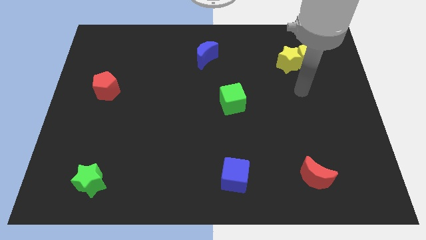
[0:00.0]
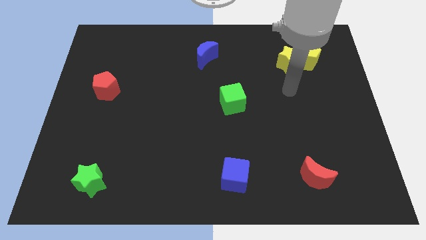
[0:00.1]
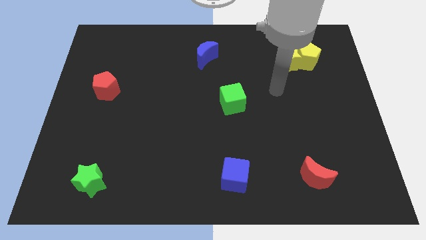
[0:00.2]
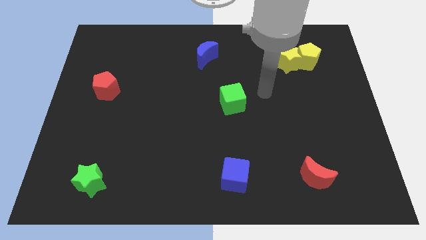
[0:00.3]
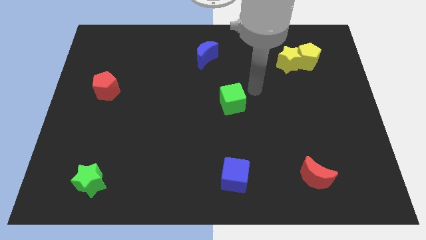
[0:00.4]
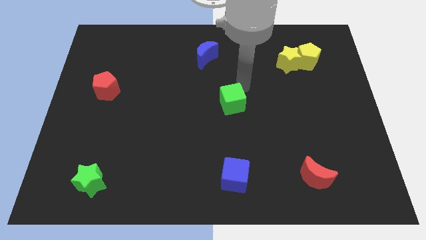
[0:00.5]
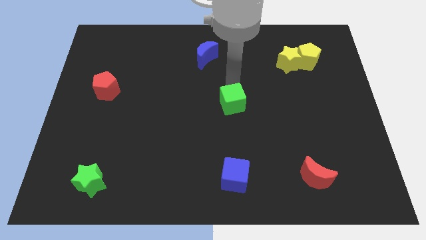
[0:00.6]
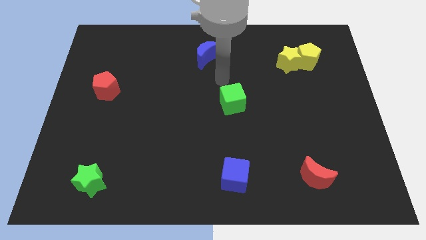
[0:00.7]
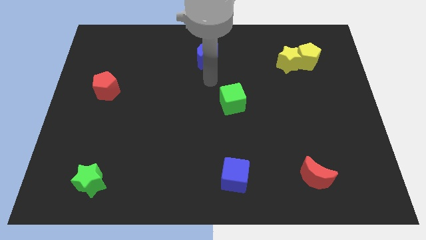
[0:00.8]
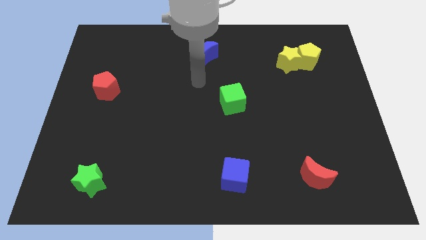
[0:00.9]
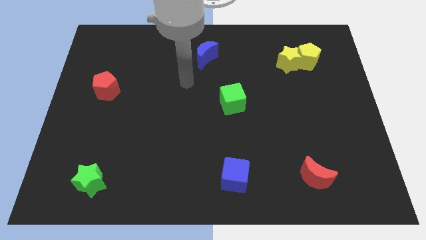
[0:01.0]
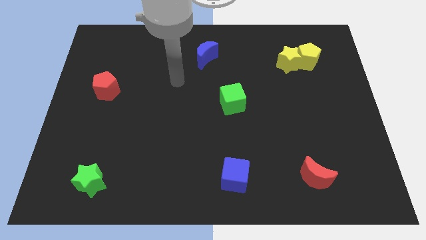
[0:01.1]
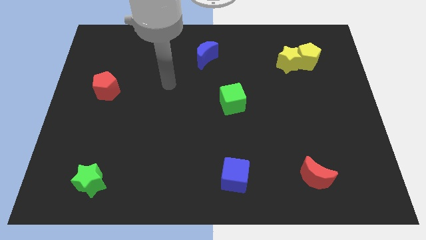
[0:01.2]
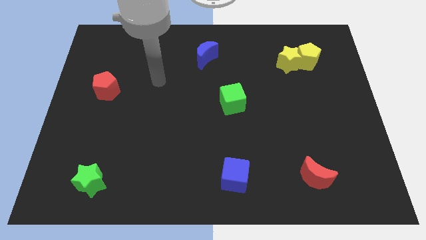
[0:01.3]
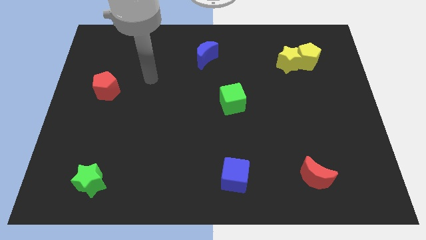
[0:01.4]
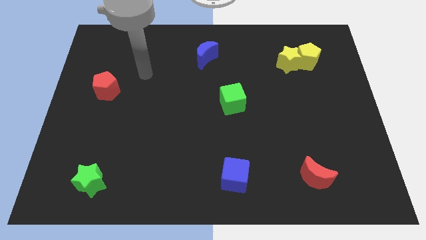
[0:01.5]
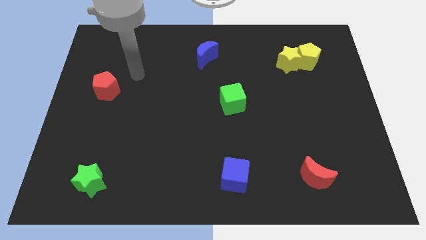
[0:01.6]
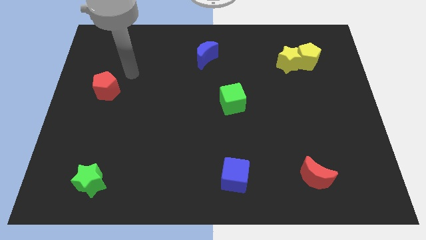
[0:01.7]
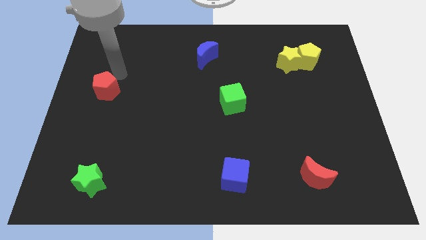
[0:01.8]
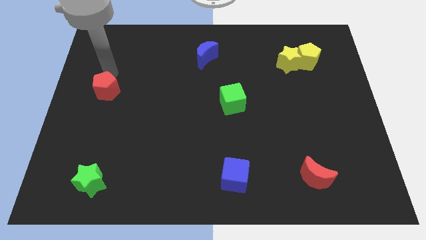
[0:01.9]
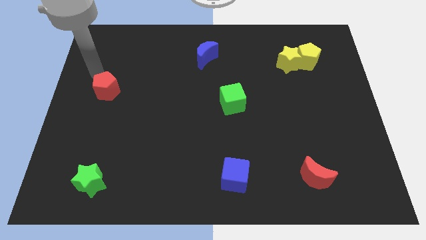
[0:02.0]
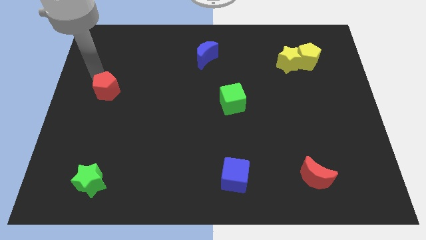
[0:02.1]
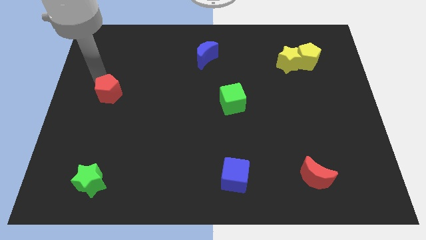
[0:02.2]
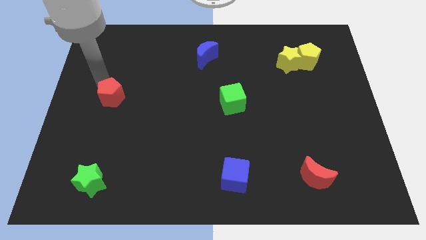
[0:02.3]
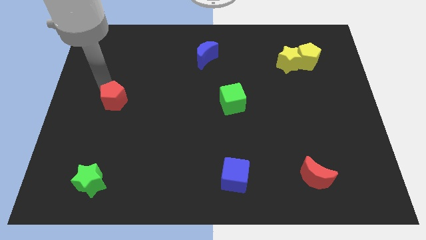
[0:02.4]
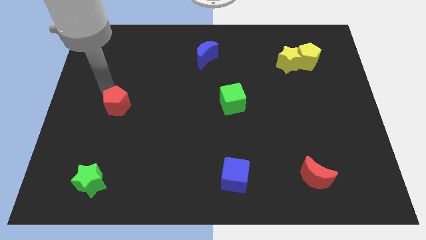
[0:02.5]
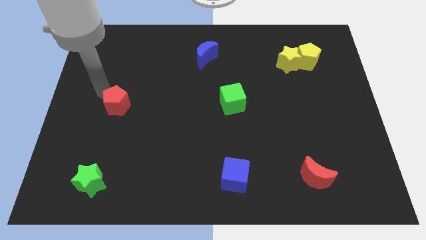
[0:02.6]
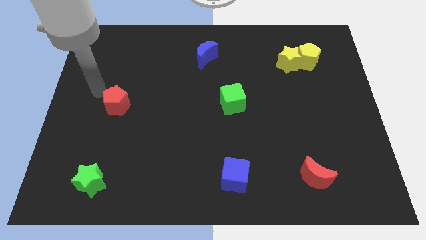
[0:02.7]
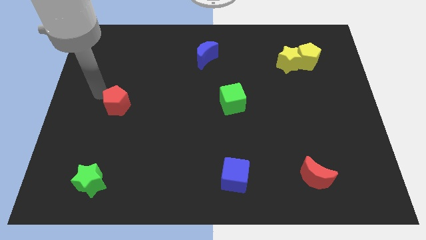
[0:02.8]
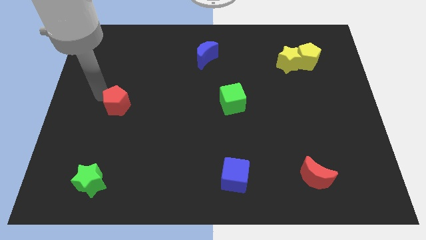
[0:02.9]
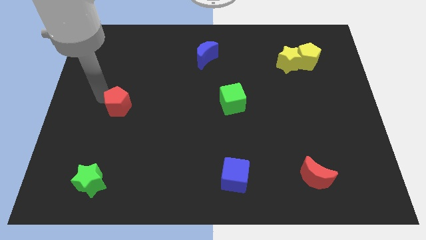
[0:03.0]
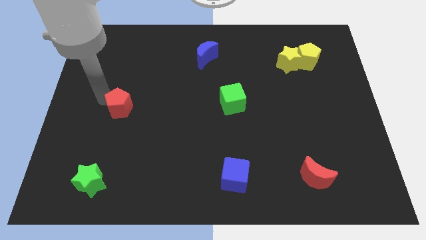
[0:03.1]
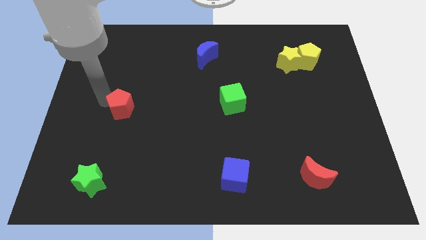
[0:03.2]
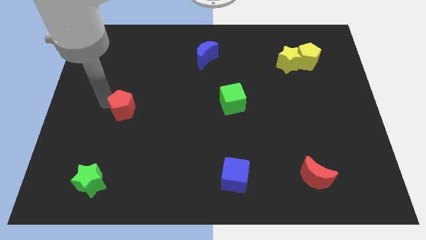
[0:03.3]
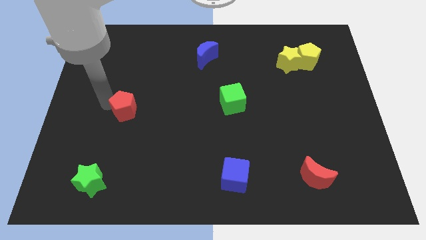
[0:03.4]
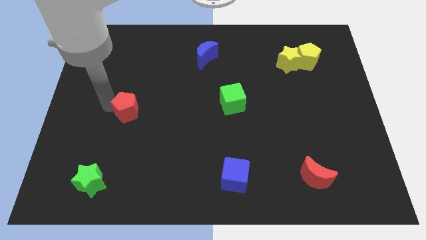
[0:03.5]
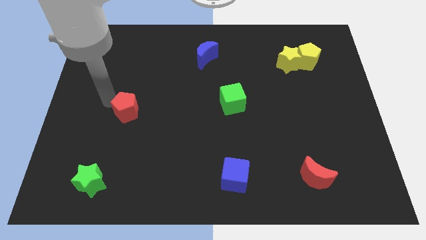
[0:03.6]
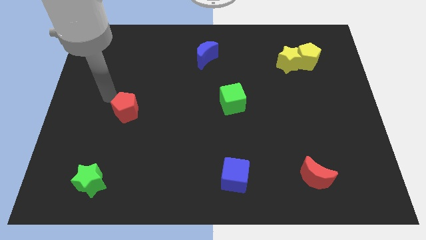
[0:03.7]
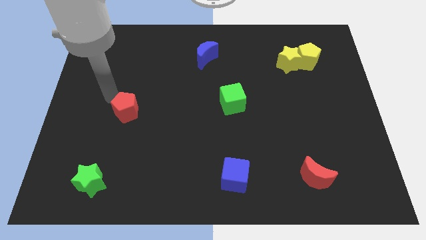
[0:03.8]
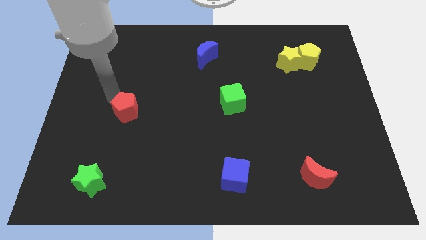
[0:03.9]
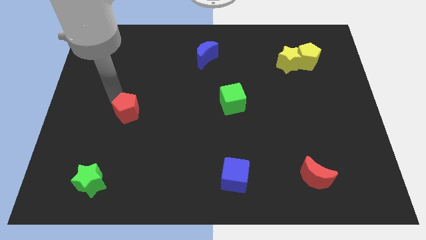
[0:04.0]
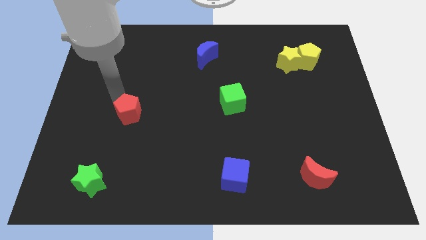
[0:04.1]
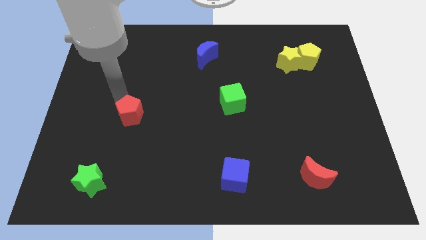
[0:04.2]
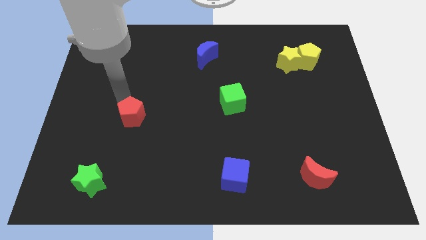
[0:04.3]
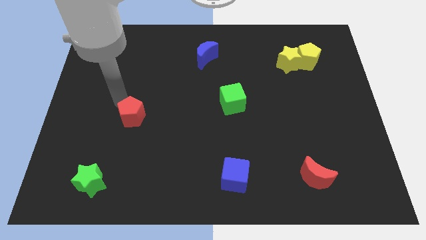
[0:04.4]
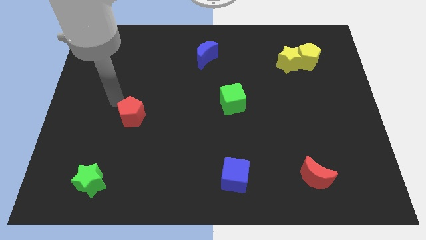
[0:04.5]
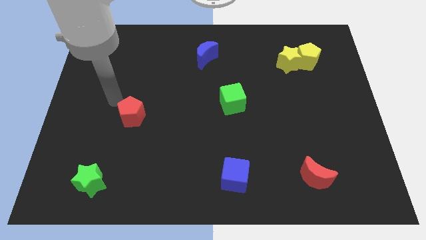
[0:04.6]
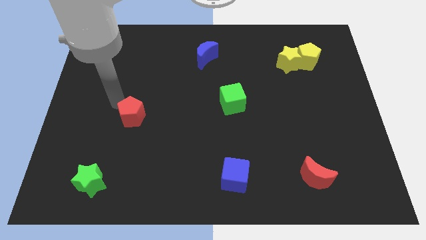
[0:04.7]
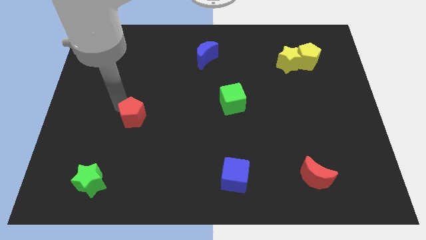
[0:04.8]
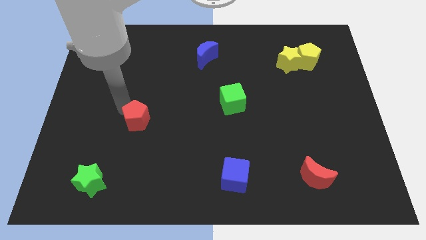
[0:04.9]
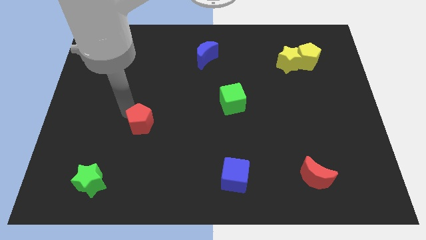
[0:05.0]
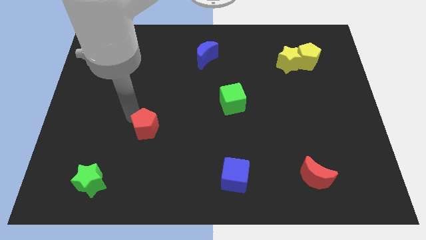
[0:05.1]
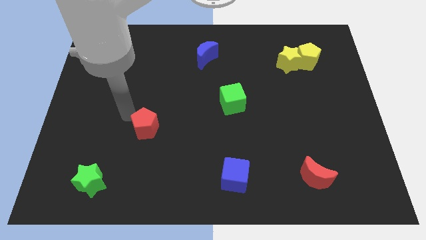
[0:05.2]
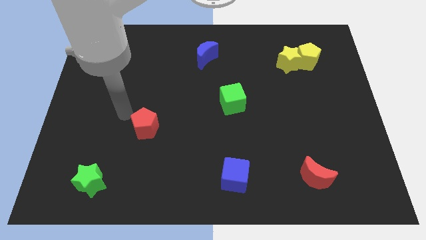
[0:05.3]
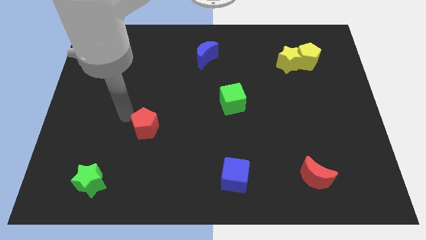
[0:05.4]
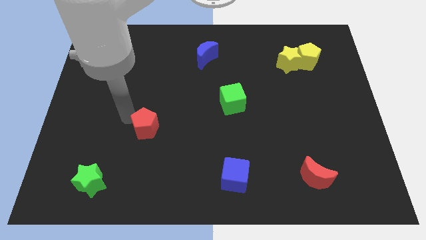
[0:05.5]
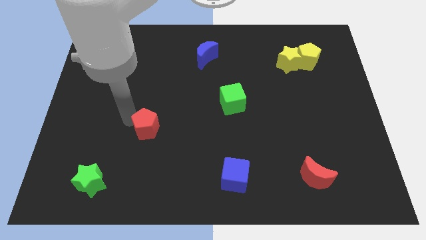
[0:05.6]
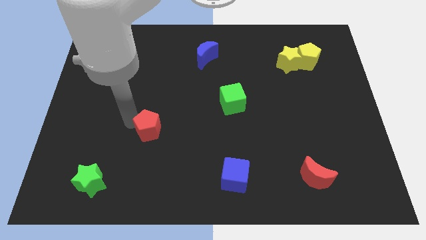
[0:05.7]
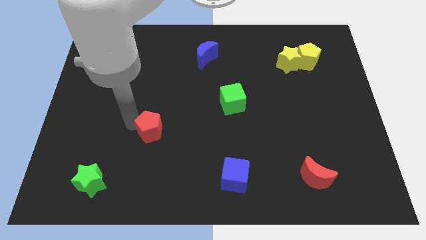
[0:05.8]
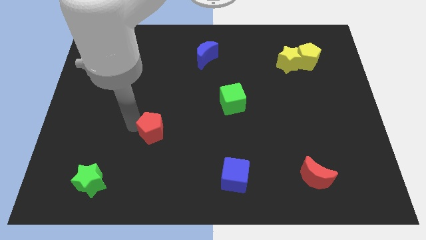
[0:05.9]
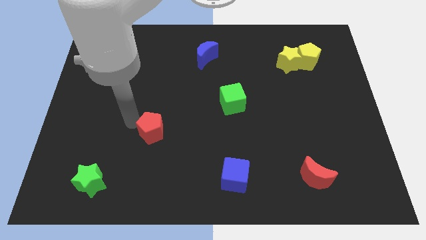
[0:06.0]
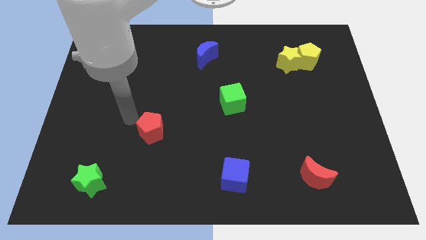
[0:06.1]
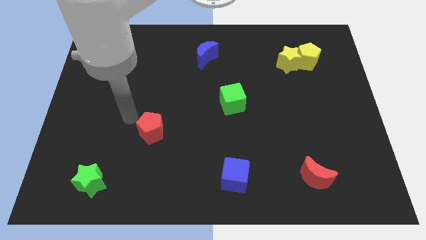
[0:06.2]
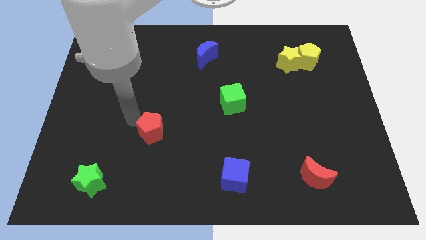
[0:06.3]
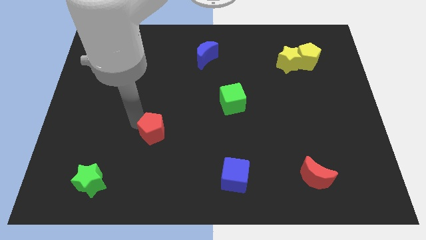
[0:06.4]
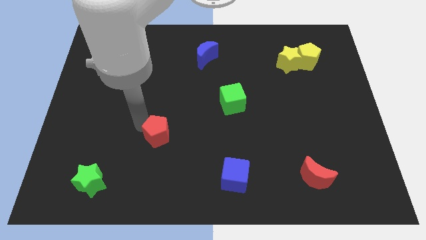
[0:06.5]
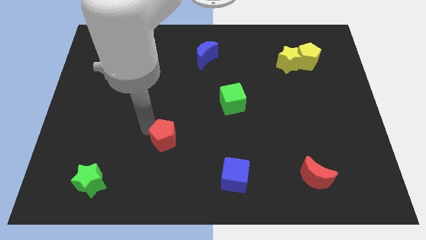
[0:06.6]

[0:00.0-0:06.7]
move the red pentagon diagonally down and to the right

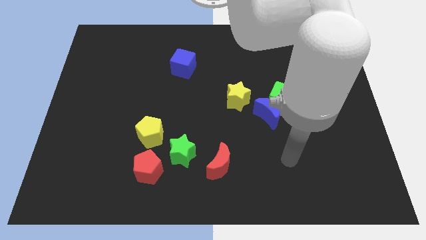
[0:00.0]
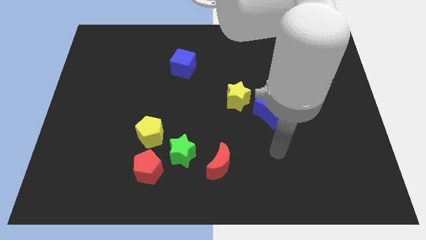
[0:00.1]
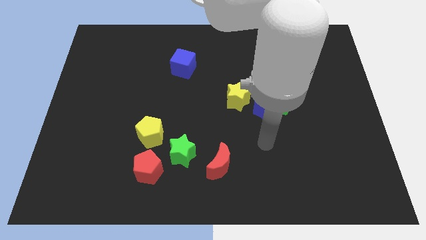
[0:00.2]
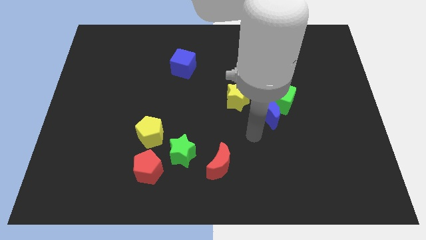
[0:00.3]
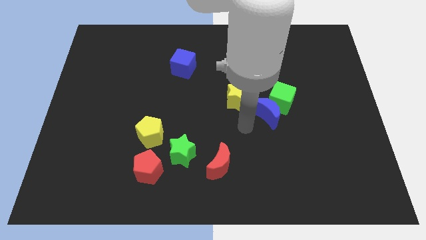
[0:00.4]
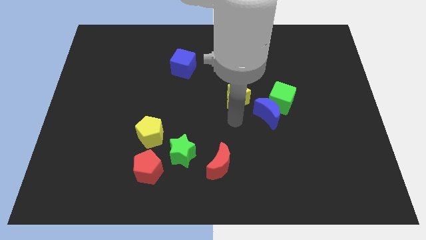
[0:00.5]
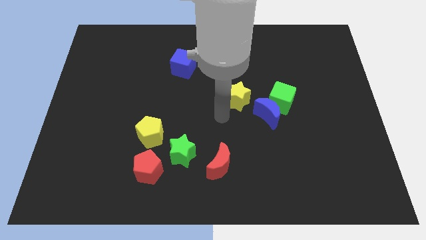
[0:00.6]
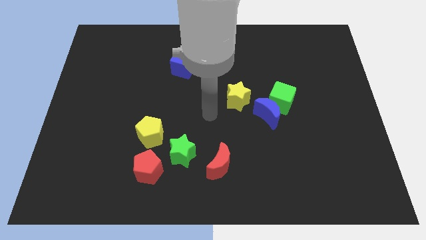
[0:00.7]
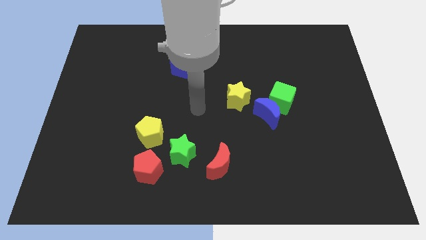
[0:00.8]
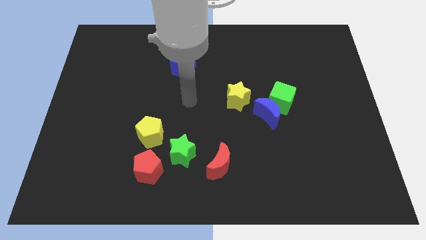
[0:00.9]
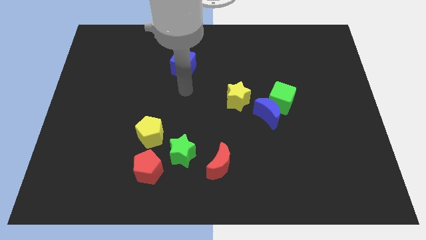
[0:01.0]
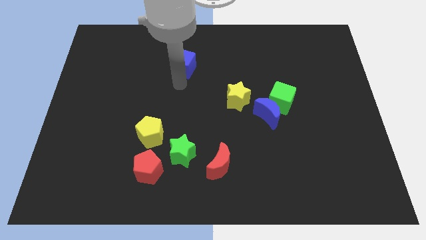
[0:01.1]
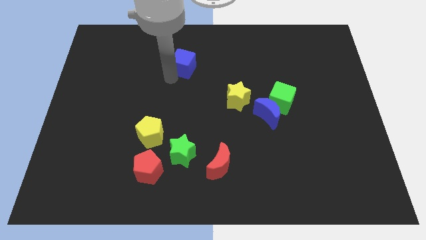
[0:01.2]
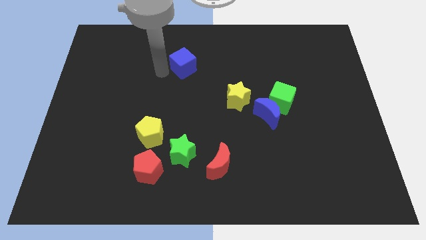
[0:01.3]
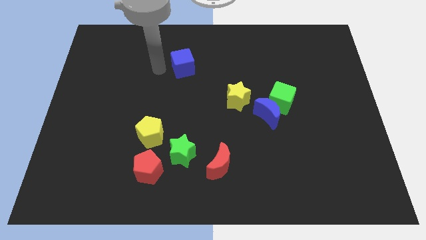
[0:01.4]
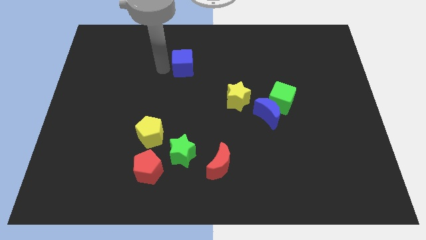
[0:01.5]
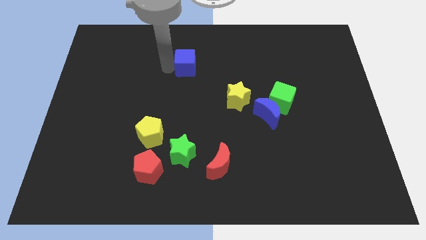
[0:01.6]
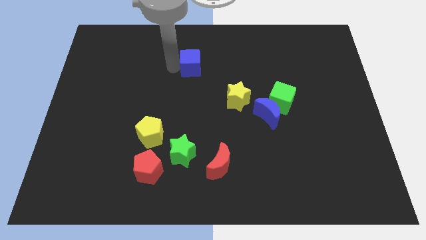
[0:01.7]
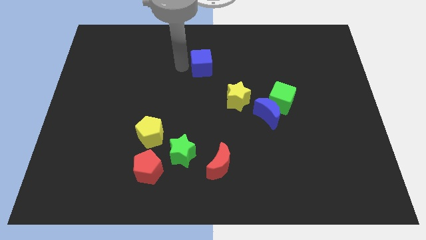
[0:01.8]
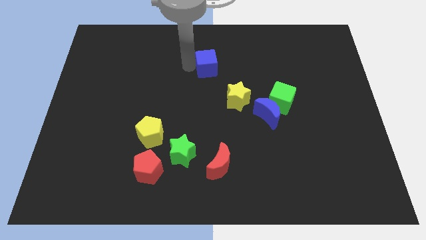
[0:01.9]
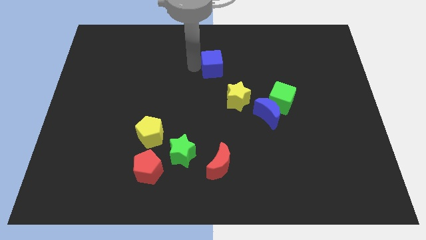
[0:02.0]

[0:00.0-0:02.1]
slightly slide the blue cube right
